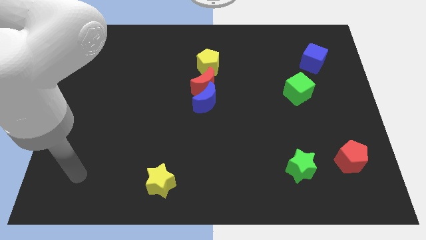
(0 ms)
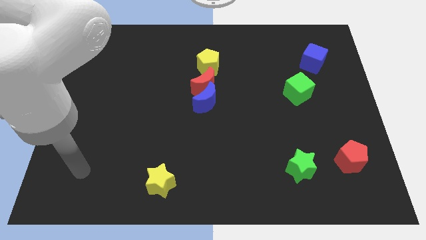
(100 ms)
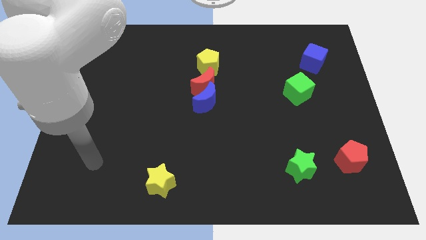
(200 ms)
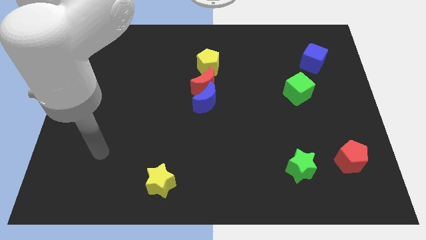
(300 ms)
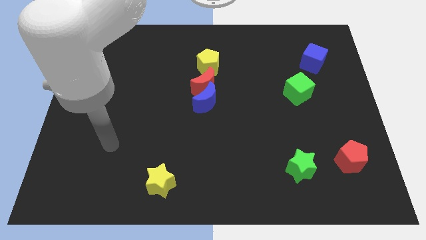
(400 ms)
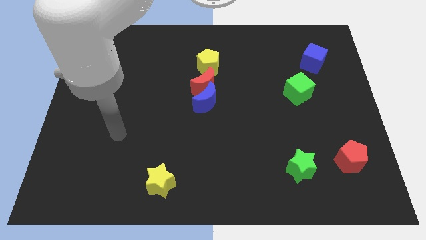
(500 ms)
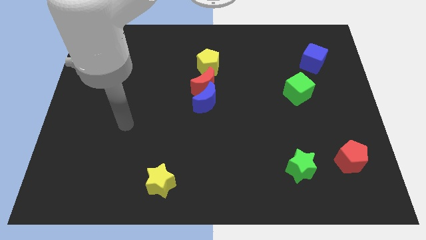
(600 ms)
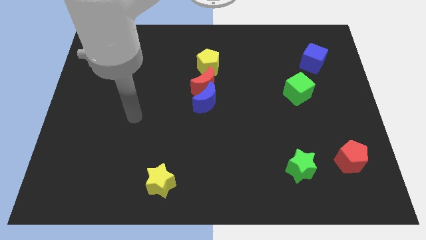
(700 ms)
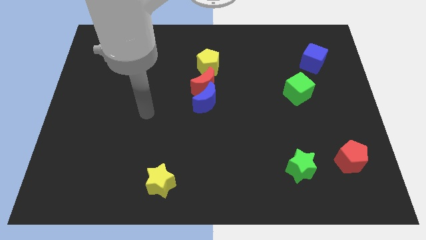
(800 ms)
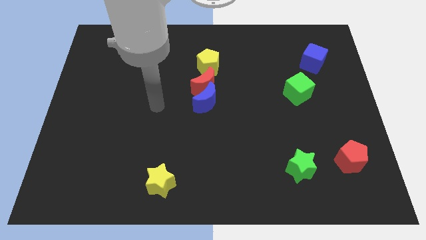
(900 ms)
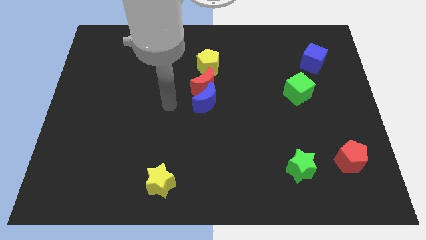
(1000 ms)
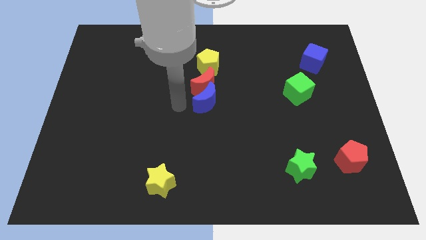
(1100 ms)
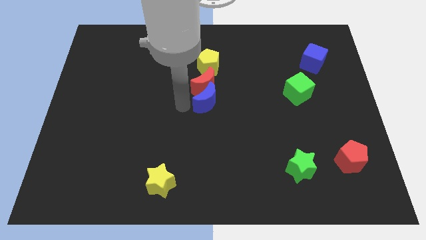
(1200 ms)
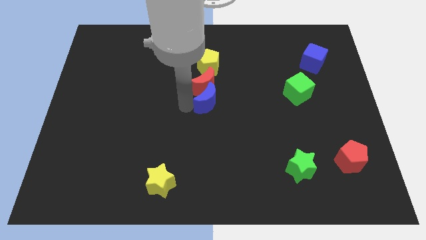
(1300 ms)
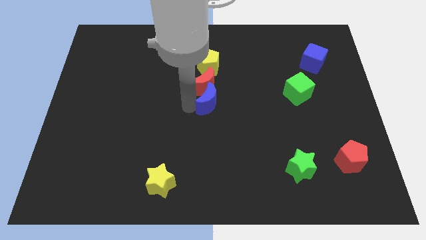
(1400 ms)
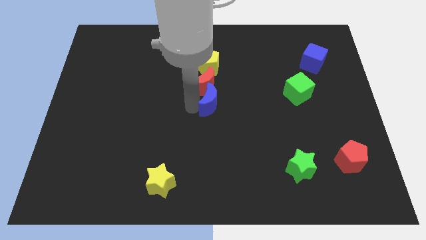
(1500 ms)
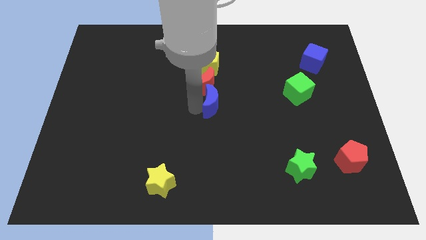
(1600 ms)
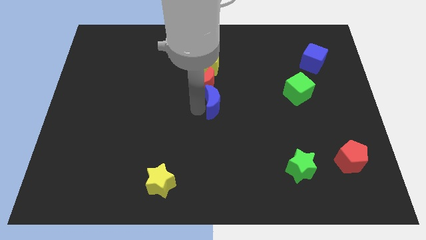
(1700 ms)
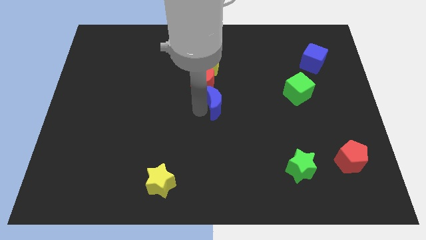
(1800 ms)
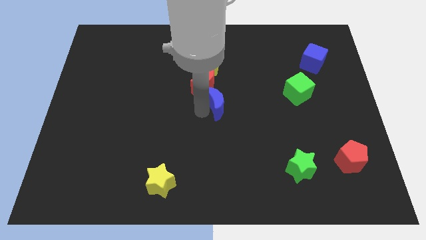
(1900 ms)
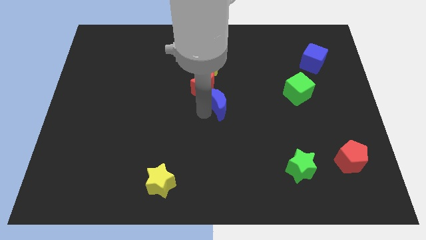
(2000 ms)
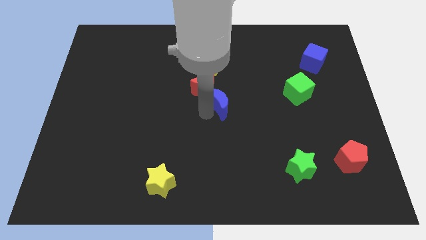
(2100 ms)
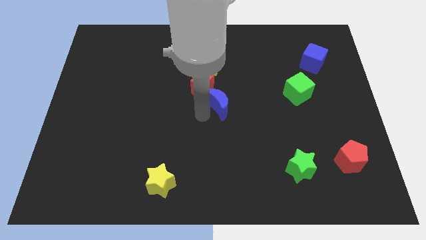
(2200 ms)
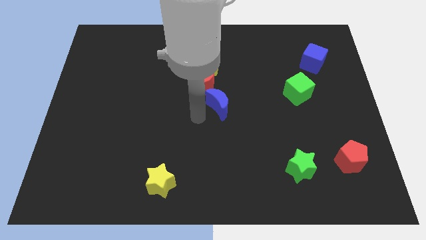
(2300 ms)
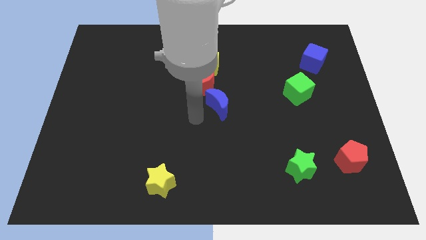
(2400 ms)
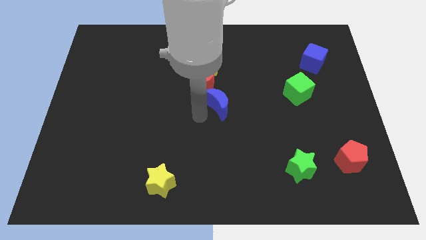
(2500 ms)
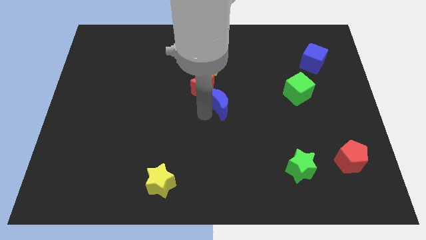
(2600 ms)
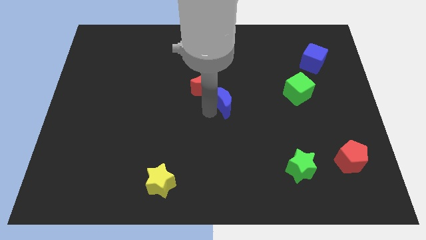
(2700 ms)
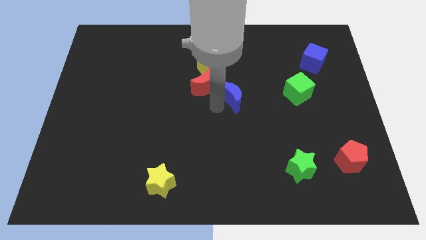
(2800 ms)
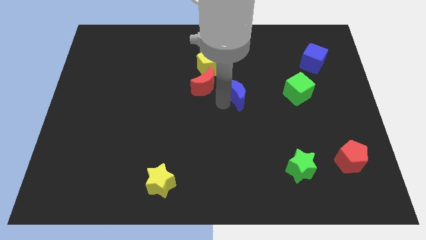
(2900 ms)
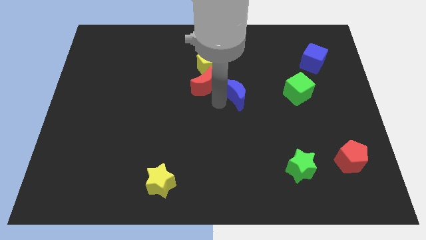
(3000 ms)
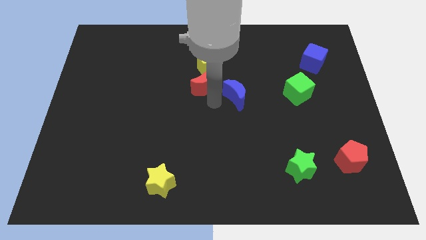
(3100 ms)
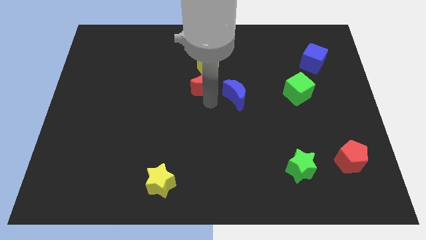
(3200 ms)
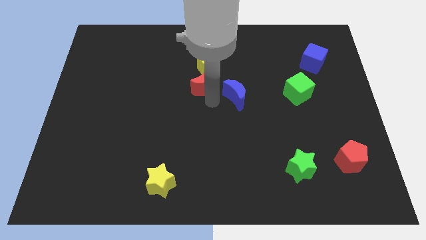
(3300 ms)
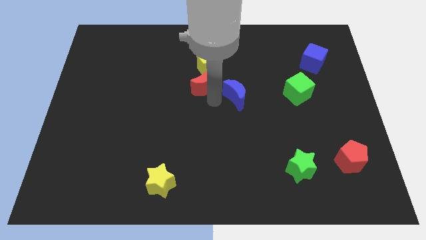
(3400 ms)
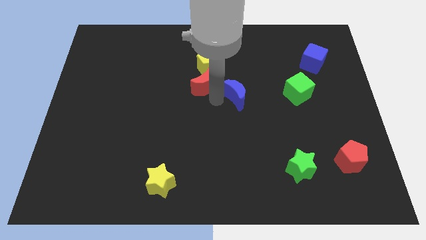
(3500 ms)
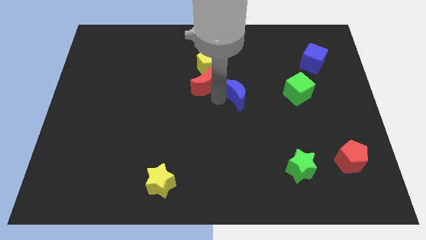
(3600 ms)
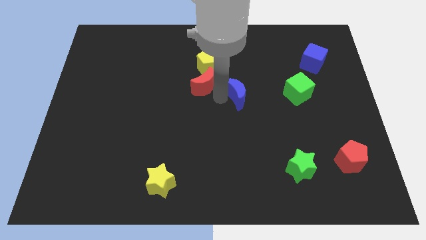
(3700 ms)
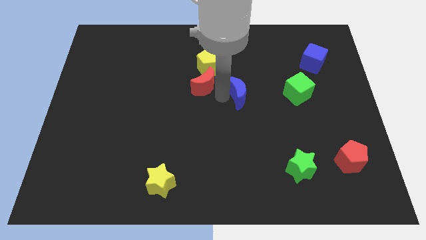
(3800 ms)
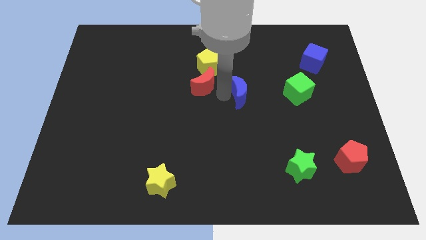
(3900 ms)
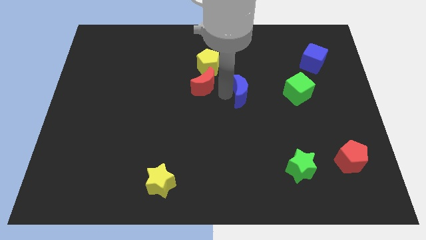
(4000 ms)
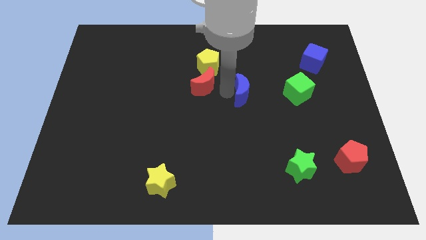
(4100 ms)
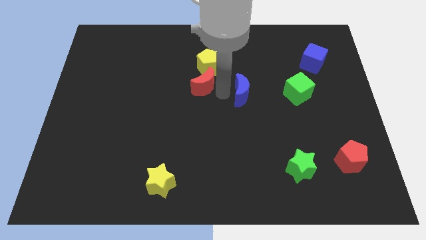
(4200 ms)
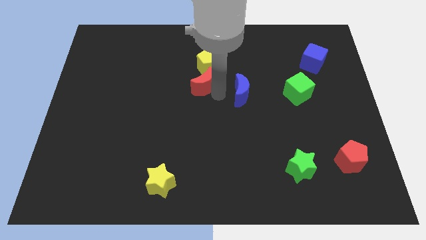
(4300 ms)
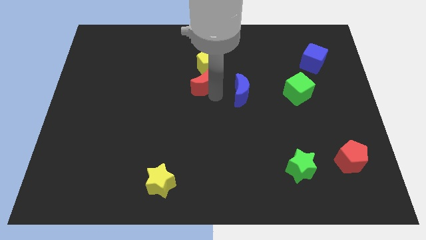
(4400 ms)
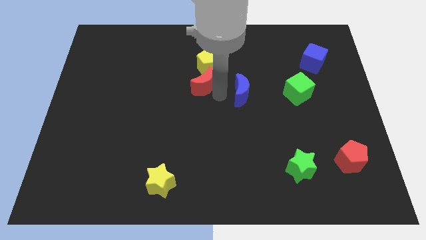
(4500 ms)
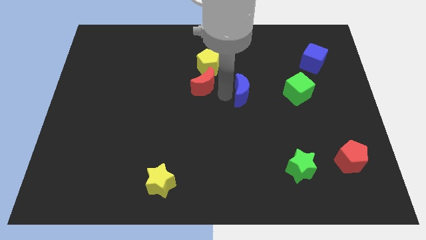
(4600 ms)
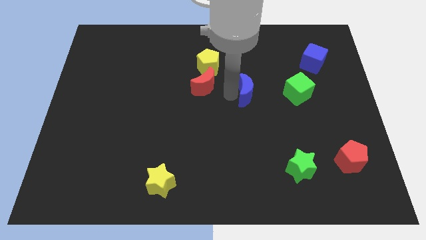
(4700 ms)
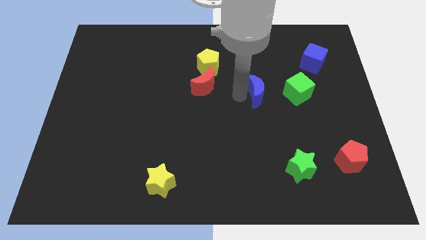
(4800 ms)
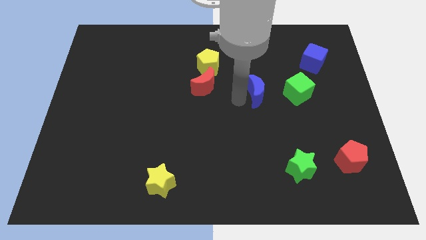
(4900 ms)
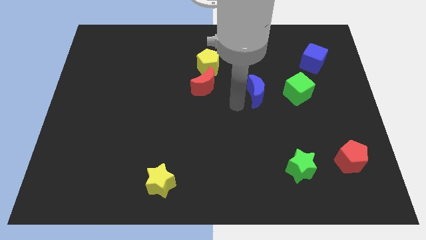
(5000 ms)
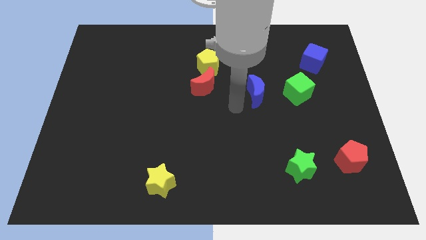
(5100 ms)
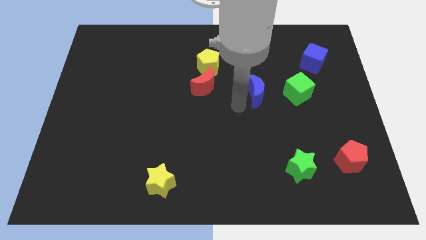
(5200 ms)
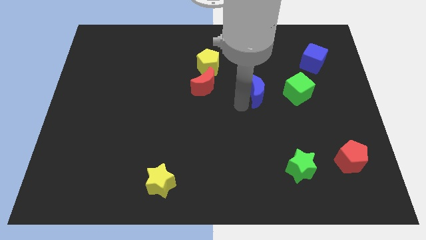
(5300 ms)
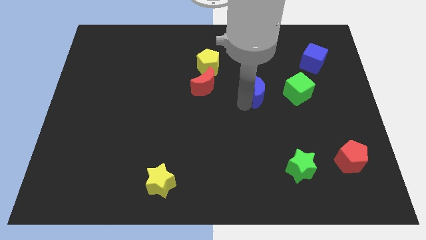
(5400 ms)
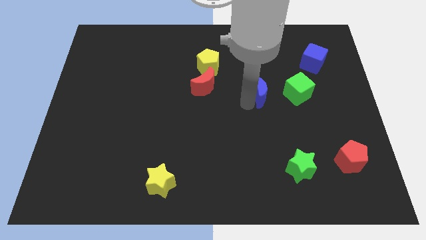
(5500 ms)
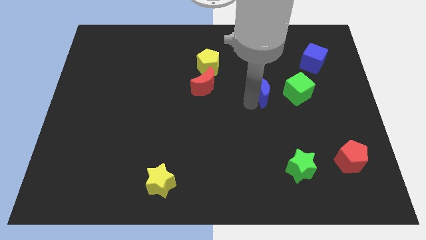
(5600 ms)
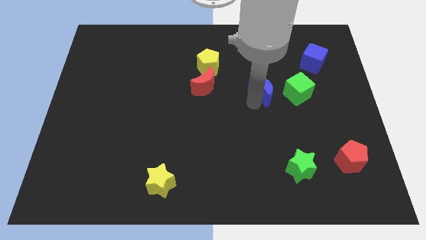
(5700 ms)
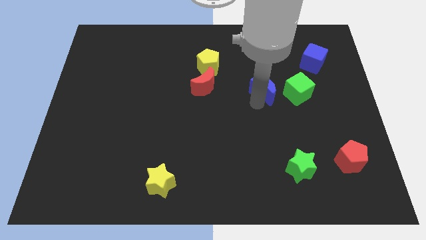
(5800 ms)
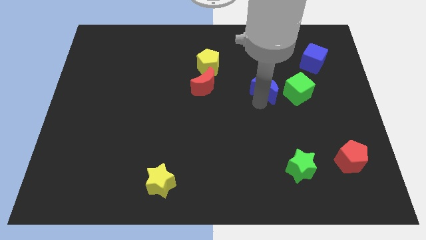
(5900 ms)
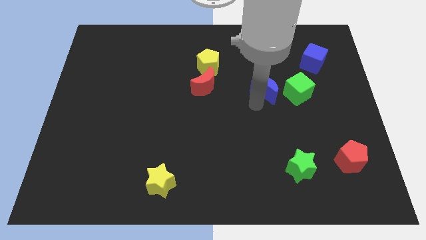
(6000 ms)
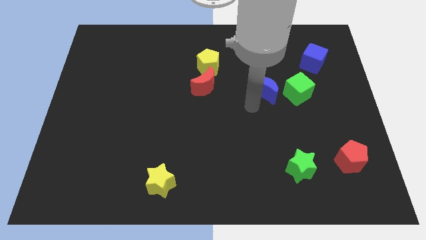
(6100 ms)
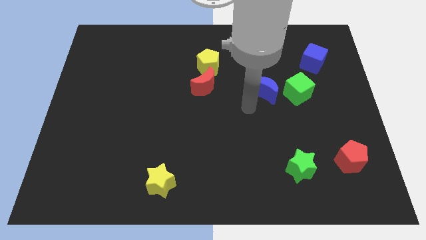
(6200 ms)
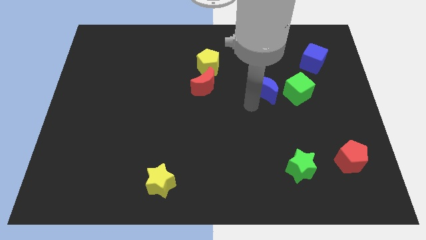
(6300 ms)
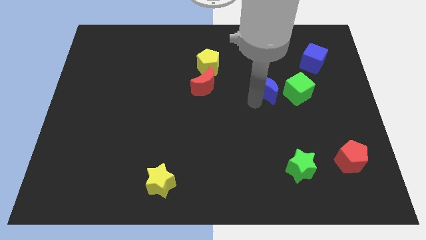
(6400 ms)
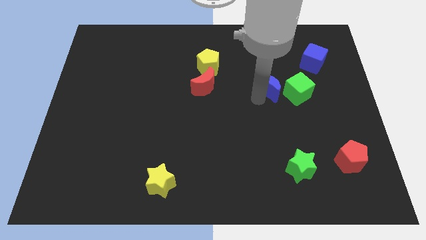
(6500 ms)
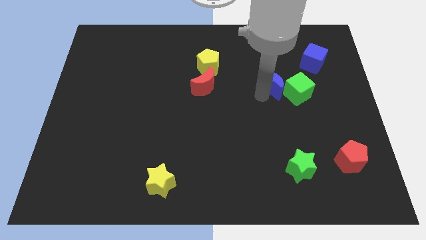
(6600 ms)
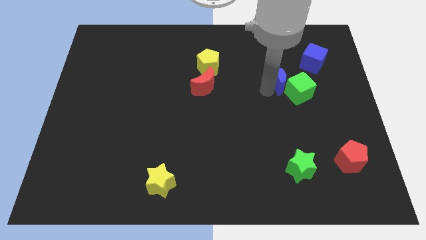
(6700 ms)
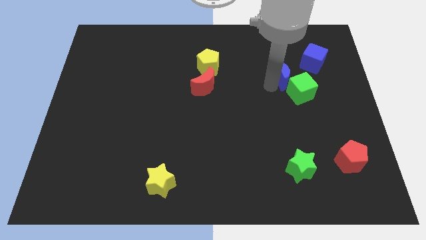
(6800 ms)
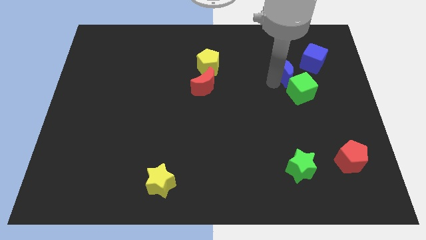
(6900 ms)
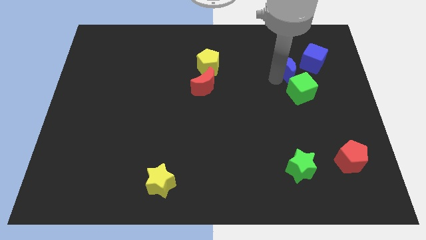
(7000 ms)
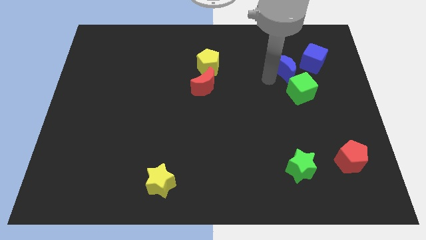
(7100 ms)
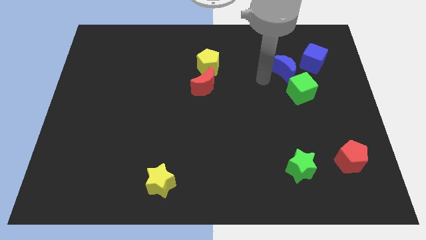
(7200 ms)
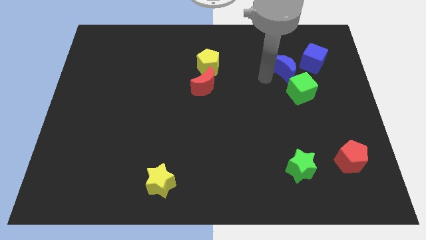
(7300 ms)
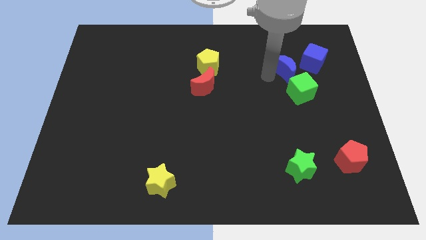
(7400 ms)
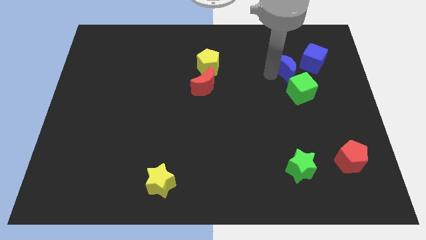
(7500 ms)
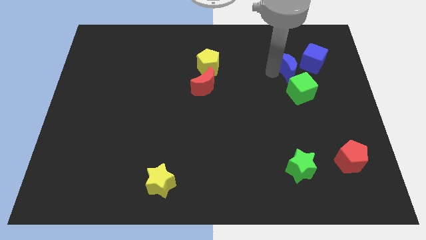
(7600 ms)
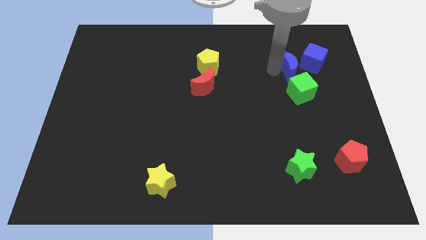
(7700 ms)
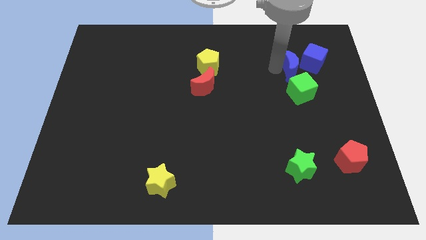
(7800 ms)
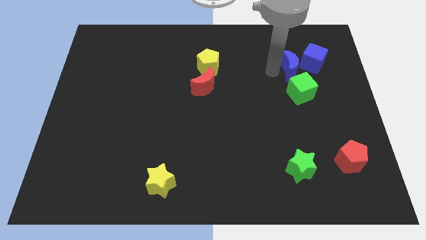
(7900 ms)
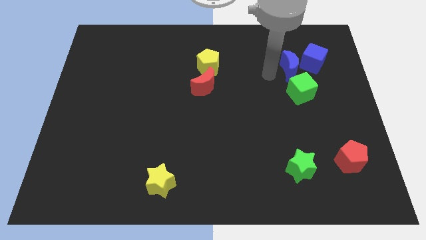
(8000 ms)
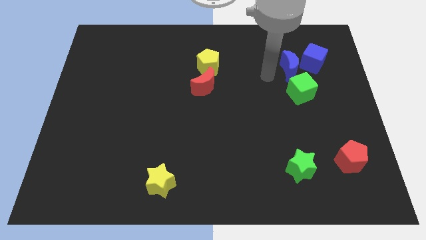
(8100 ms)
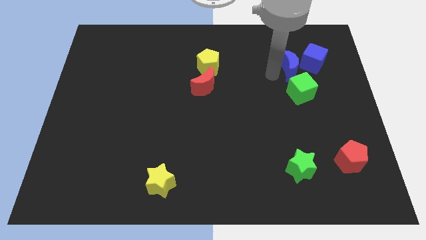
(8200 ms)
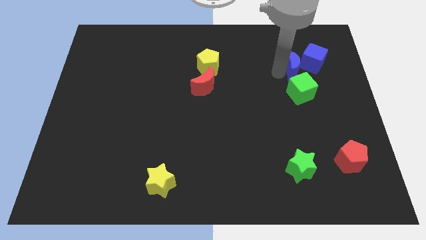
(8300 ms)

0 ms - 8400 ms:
put the blue moon next to the blue cube
